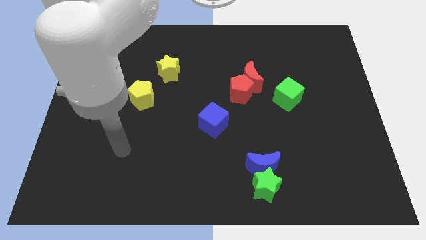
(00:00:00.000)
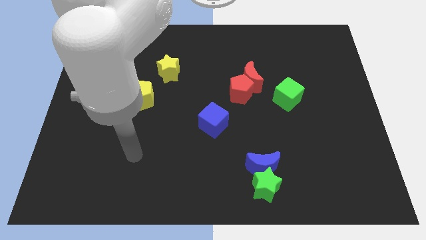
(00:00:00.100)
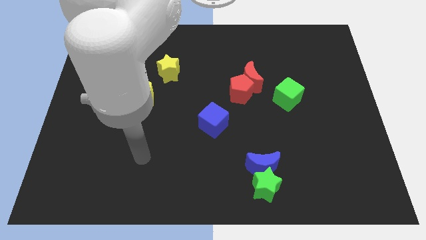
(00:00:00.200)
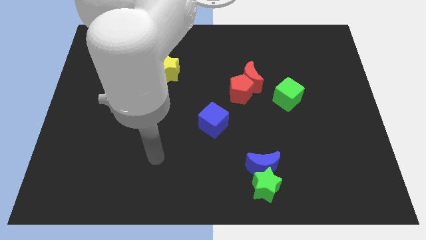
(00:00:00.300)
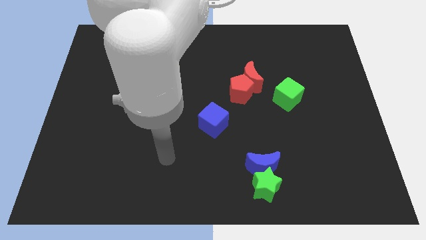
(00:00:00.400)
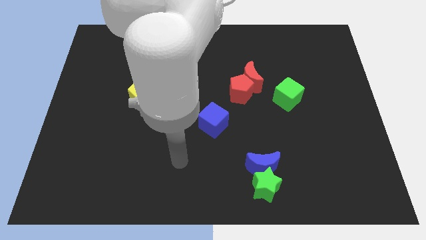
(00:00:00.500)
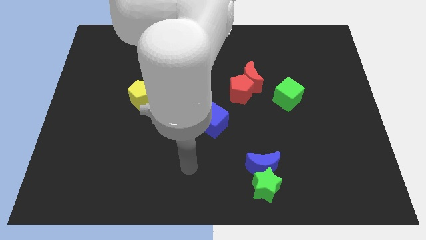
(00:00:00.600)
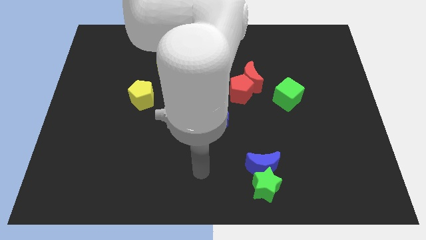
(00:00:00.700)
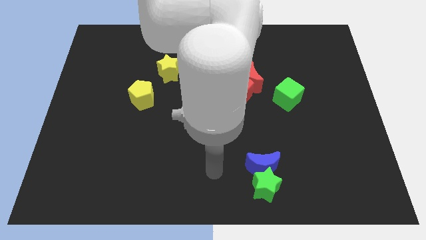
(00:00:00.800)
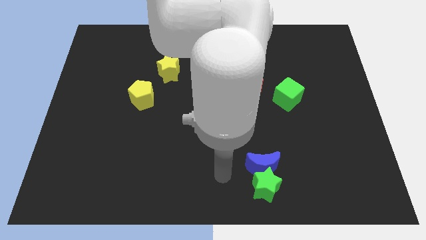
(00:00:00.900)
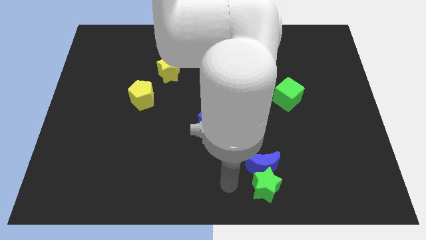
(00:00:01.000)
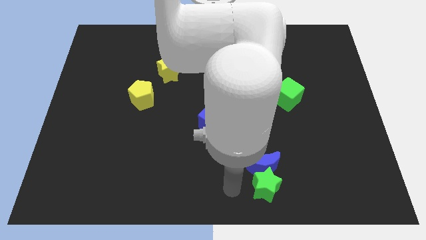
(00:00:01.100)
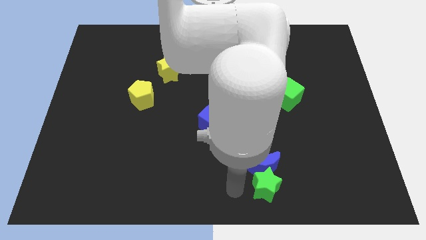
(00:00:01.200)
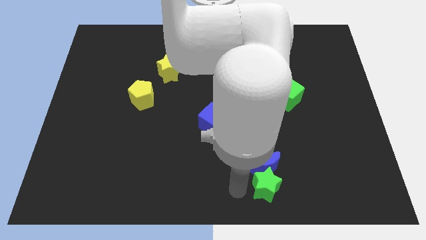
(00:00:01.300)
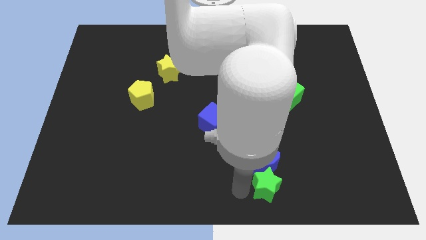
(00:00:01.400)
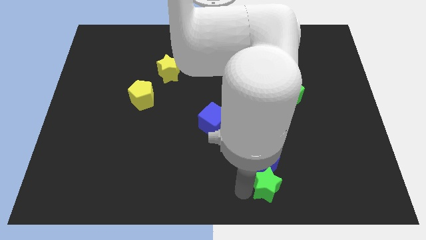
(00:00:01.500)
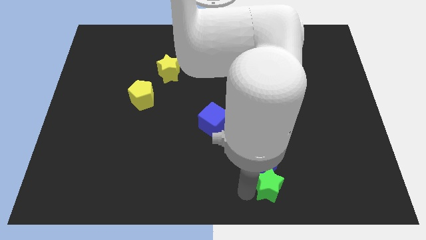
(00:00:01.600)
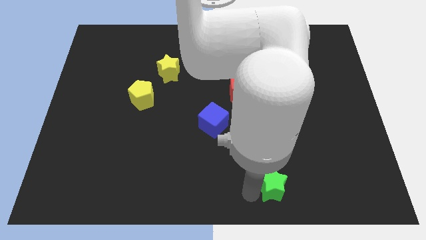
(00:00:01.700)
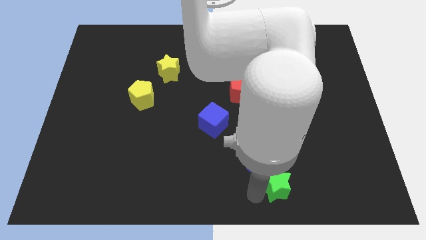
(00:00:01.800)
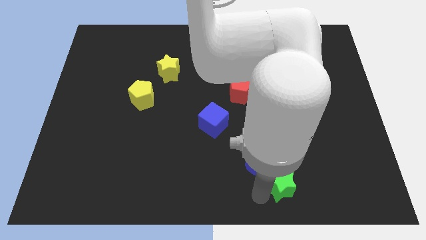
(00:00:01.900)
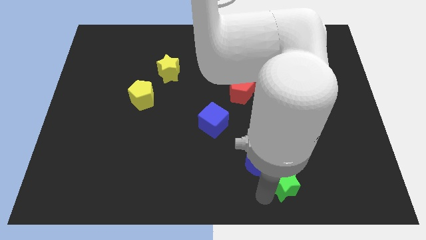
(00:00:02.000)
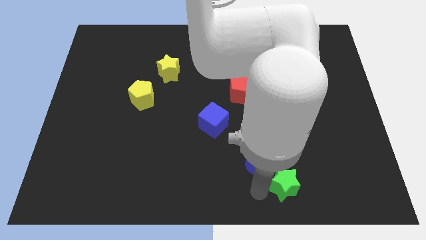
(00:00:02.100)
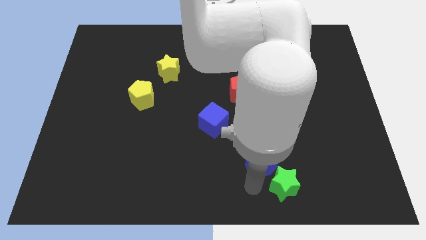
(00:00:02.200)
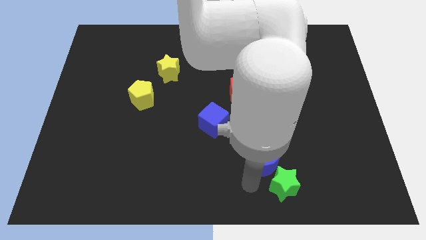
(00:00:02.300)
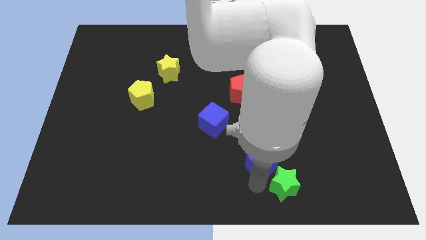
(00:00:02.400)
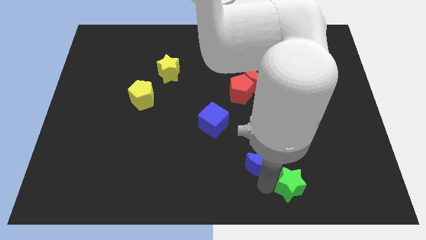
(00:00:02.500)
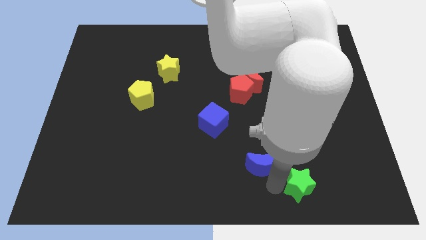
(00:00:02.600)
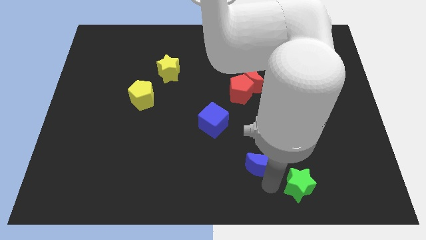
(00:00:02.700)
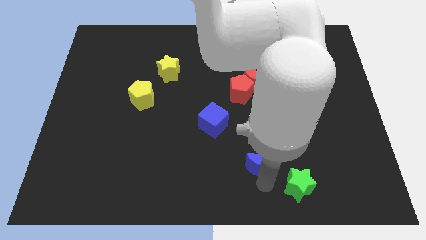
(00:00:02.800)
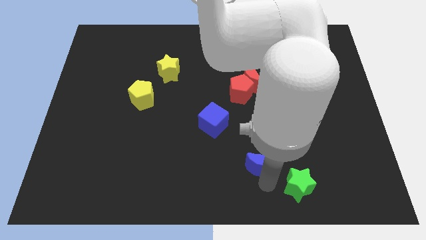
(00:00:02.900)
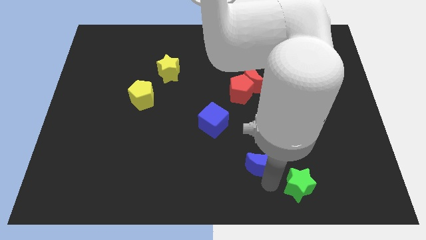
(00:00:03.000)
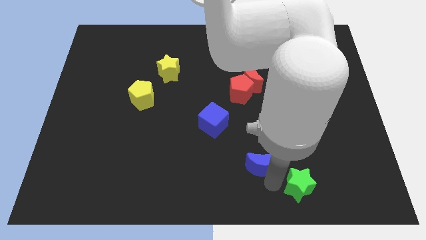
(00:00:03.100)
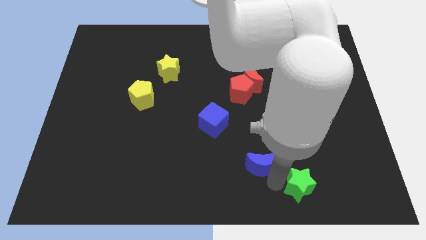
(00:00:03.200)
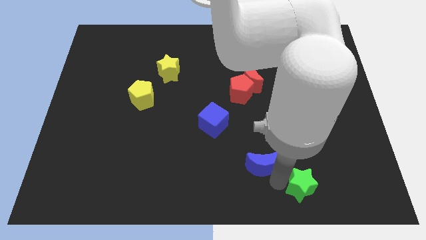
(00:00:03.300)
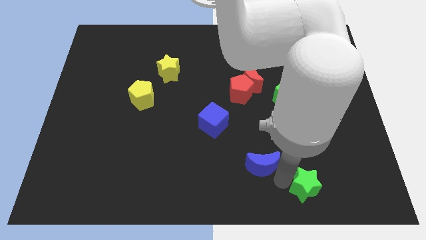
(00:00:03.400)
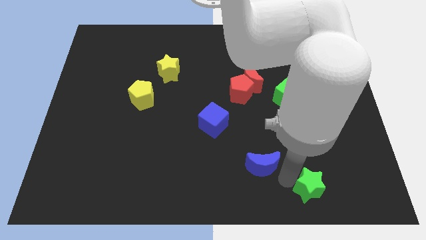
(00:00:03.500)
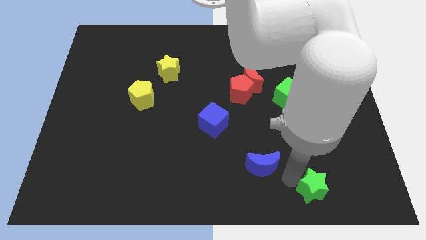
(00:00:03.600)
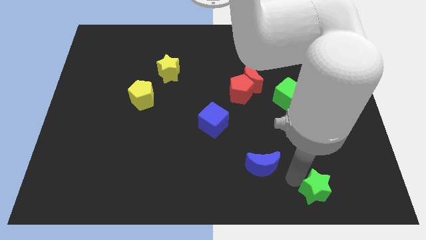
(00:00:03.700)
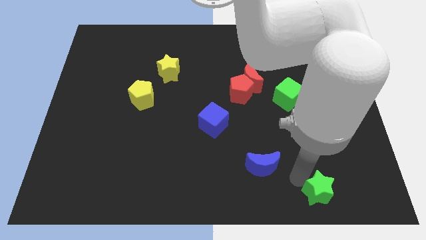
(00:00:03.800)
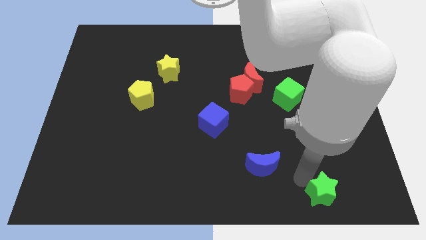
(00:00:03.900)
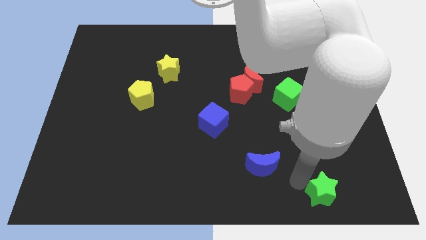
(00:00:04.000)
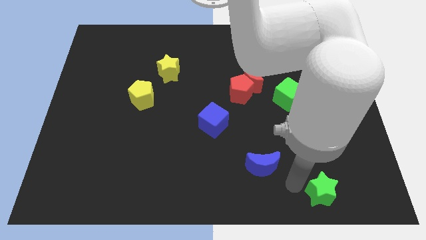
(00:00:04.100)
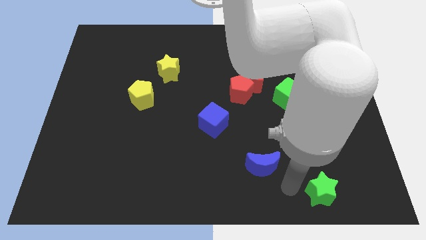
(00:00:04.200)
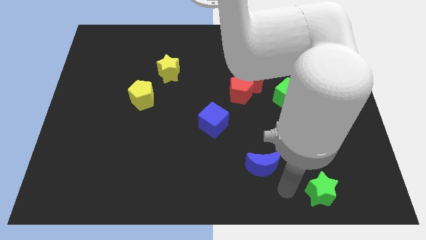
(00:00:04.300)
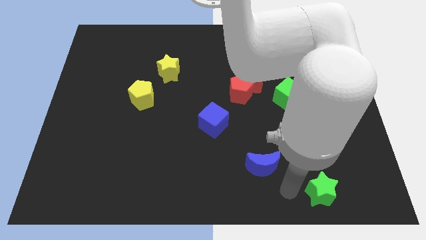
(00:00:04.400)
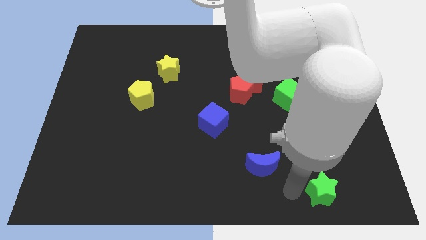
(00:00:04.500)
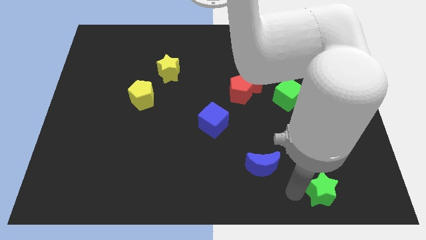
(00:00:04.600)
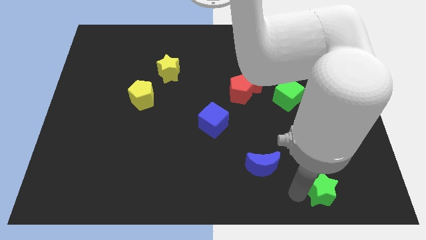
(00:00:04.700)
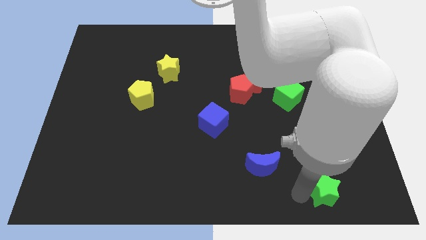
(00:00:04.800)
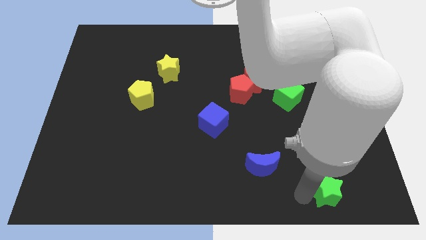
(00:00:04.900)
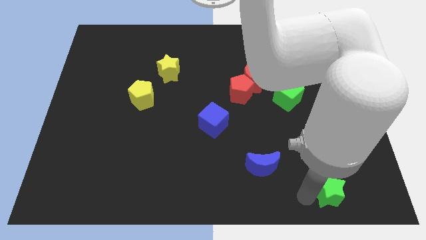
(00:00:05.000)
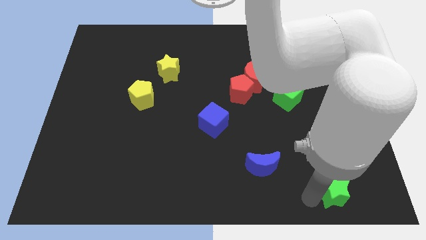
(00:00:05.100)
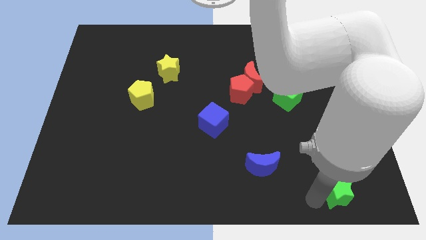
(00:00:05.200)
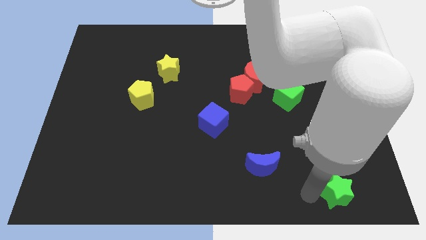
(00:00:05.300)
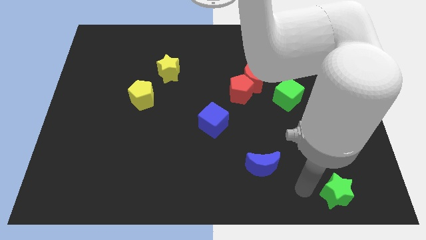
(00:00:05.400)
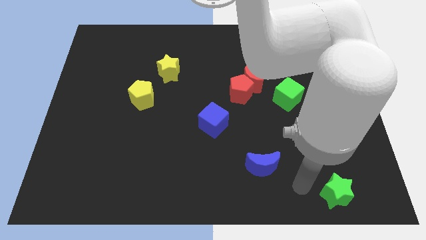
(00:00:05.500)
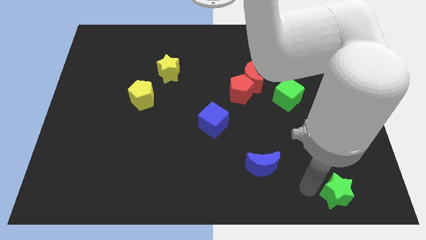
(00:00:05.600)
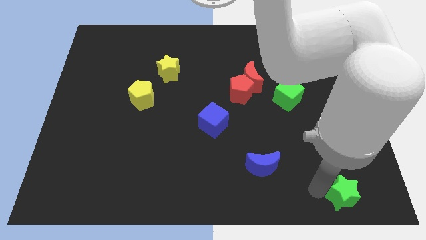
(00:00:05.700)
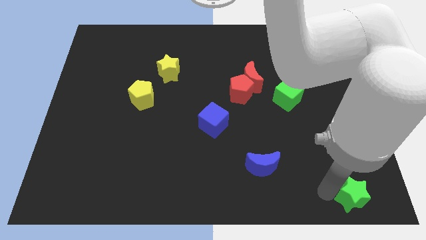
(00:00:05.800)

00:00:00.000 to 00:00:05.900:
put the green star to the bottom right corner

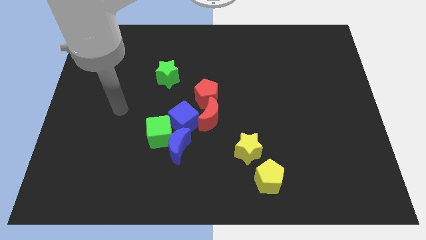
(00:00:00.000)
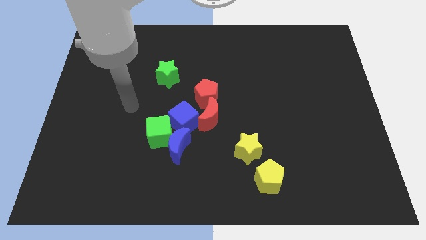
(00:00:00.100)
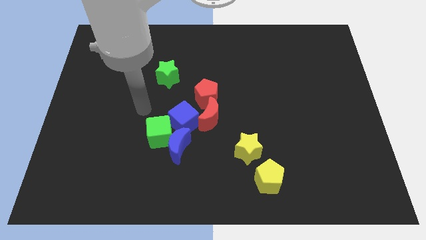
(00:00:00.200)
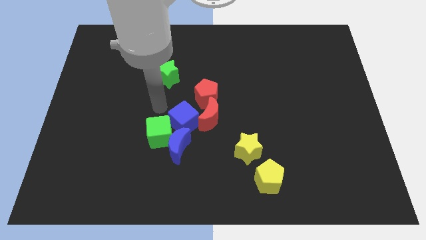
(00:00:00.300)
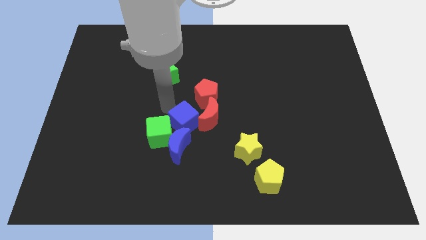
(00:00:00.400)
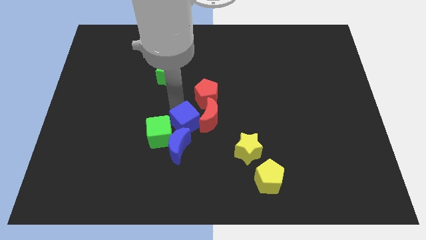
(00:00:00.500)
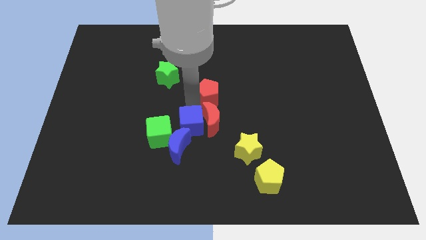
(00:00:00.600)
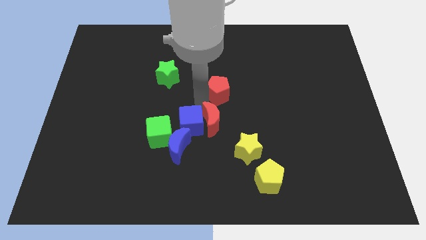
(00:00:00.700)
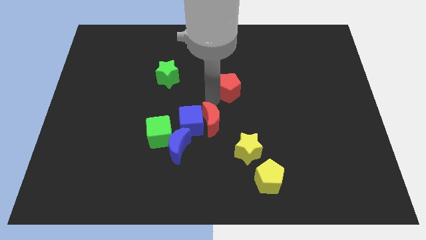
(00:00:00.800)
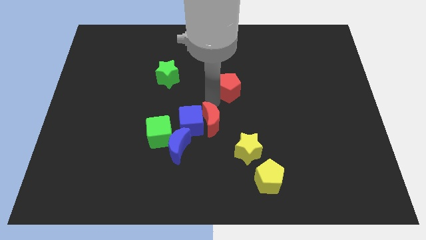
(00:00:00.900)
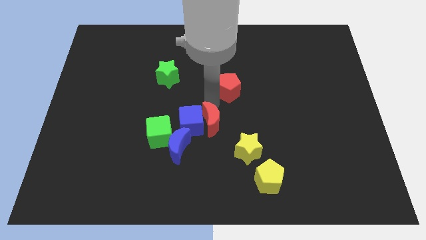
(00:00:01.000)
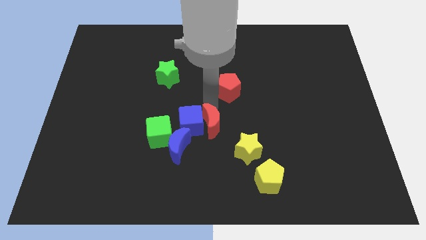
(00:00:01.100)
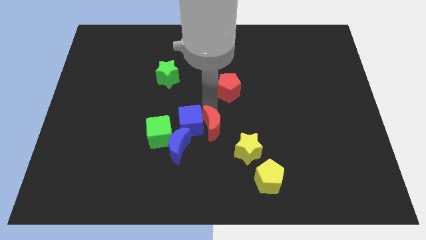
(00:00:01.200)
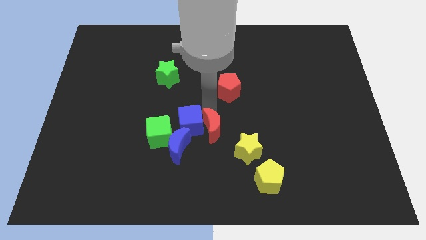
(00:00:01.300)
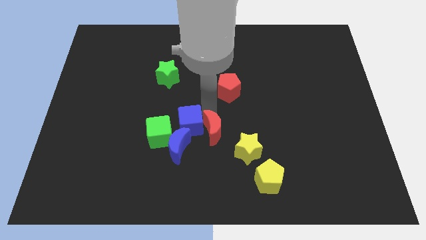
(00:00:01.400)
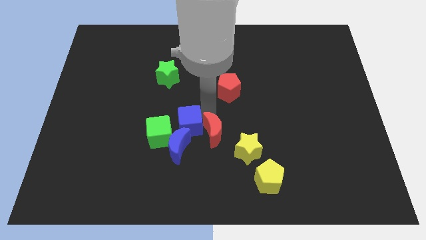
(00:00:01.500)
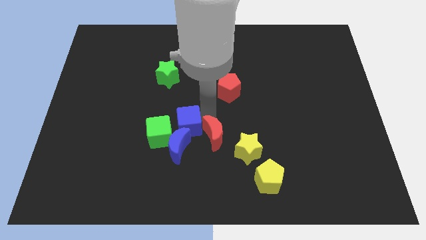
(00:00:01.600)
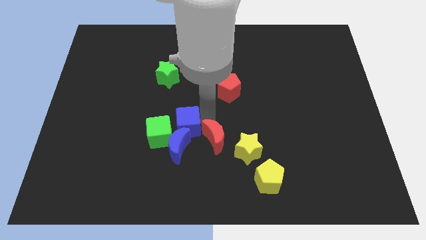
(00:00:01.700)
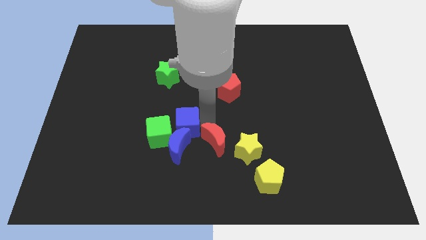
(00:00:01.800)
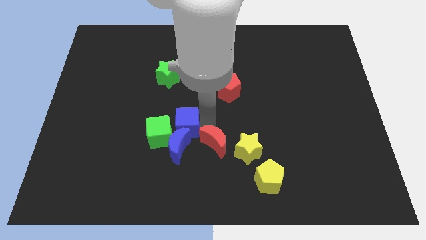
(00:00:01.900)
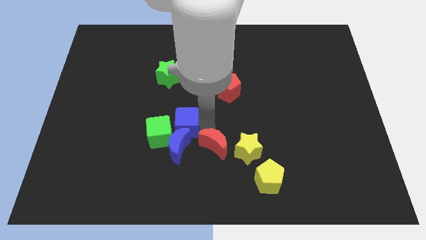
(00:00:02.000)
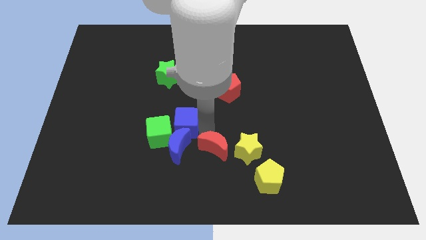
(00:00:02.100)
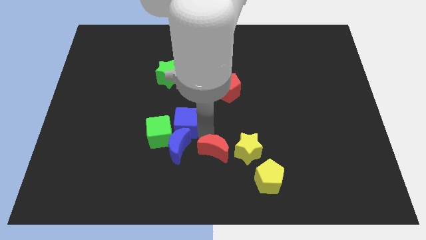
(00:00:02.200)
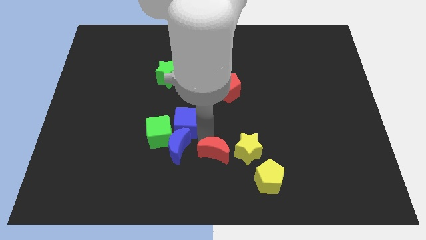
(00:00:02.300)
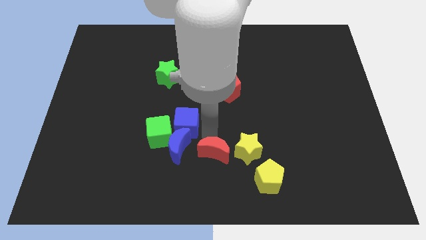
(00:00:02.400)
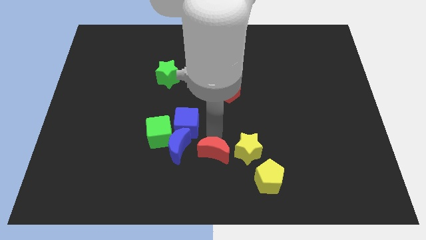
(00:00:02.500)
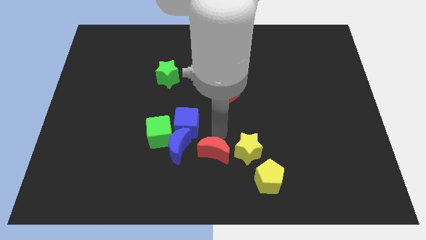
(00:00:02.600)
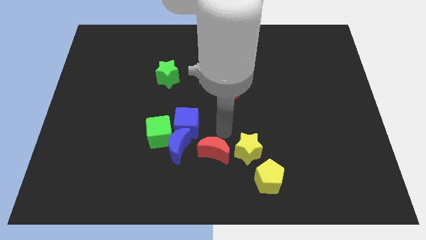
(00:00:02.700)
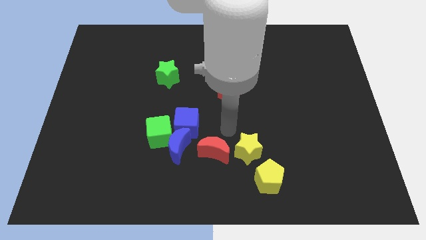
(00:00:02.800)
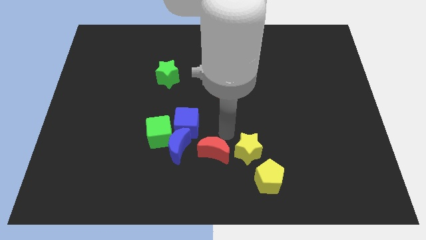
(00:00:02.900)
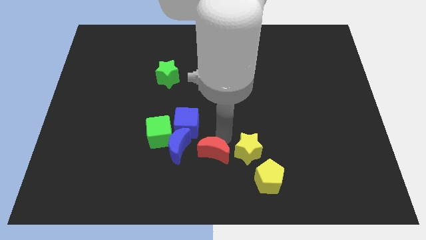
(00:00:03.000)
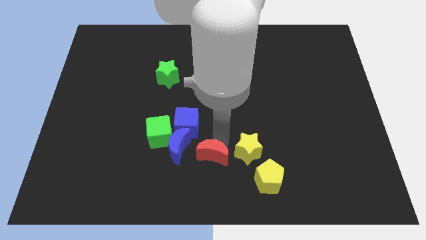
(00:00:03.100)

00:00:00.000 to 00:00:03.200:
push the red moon to the bottom
